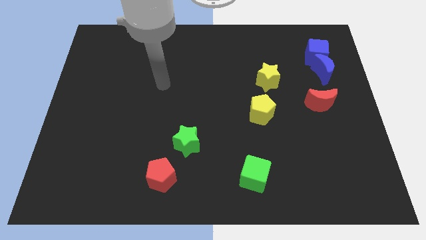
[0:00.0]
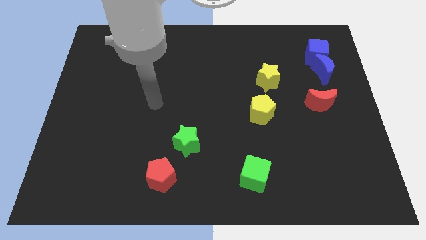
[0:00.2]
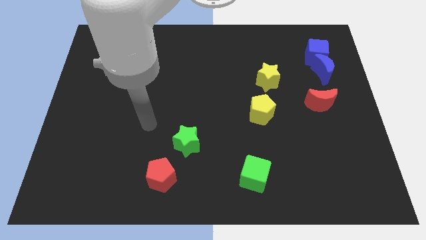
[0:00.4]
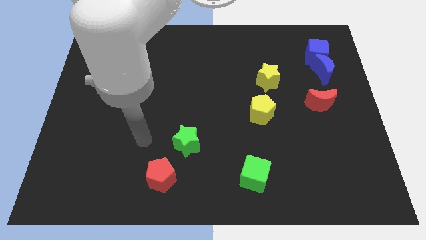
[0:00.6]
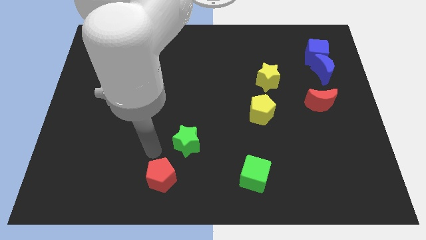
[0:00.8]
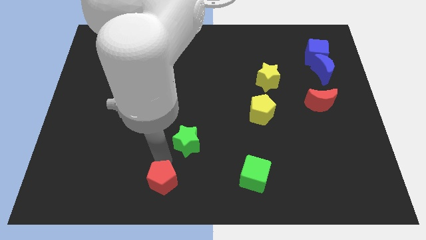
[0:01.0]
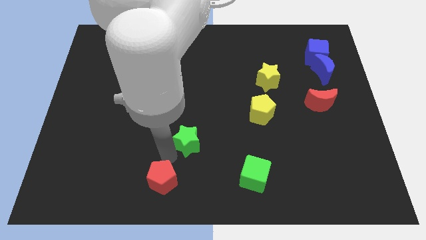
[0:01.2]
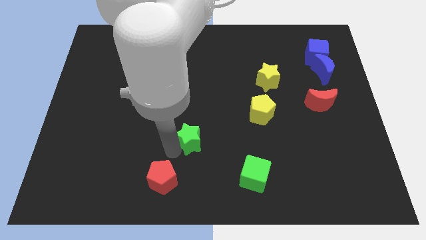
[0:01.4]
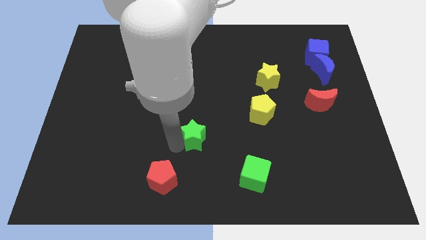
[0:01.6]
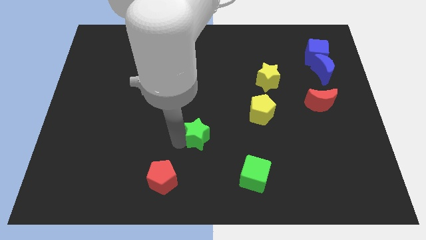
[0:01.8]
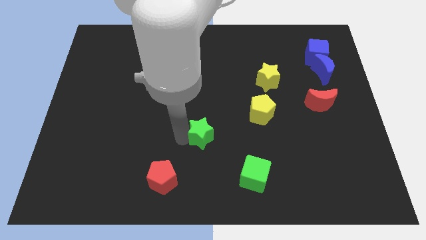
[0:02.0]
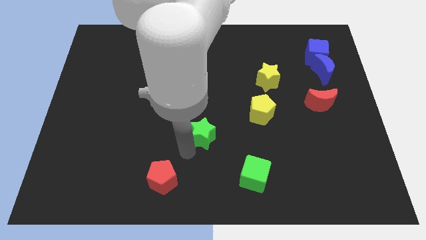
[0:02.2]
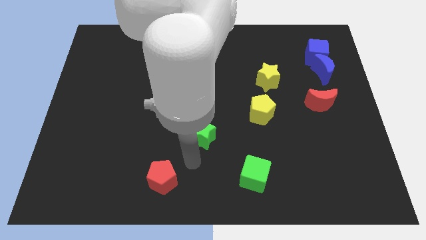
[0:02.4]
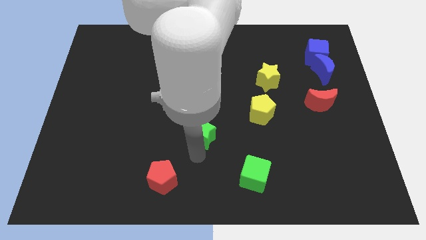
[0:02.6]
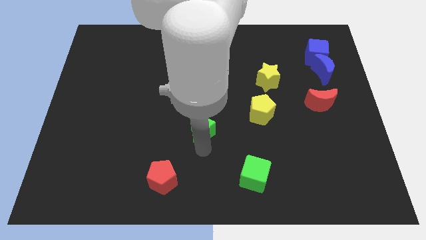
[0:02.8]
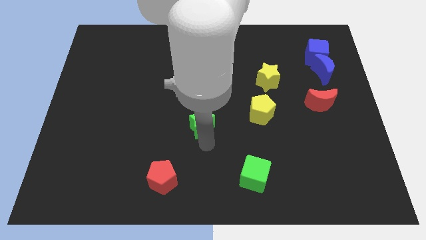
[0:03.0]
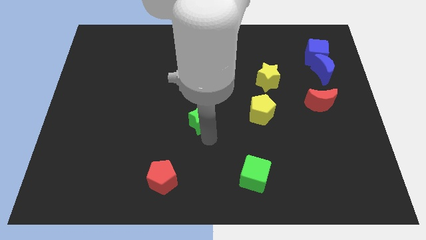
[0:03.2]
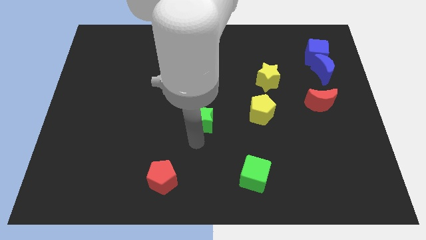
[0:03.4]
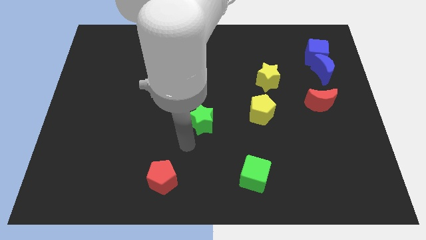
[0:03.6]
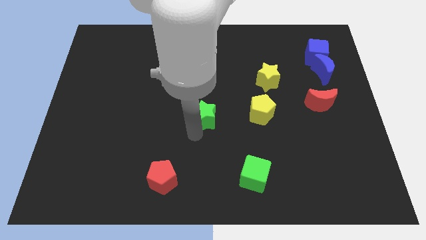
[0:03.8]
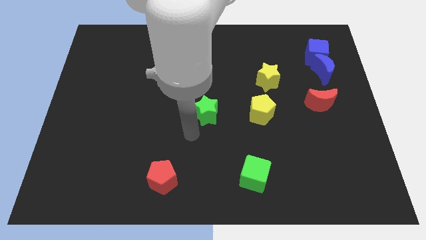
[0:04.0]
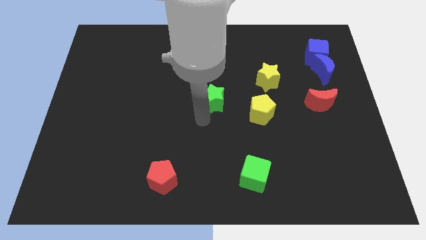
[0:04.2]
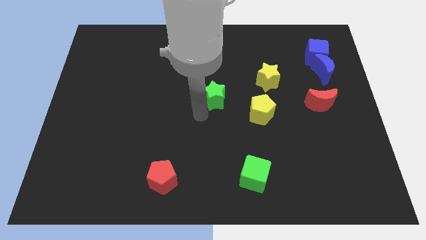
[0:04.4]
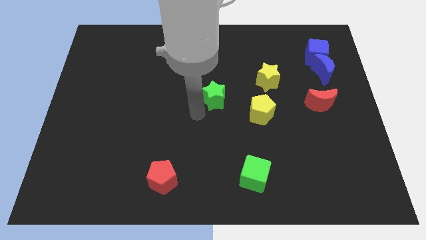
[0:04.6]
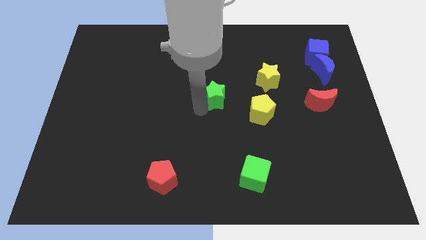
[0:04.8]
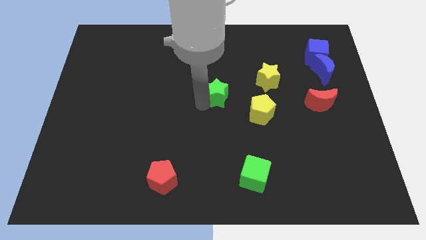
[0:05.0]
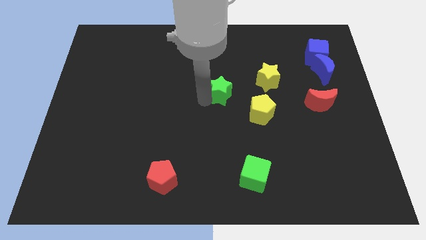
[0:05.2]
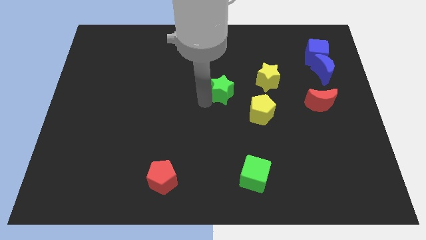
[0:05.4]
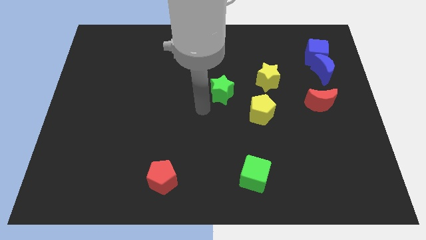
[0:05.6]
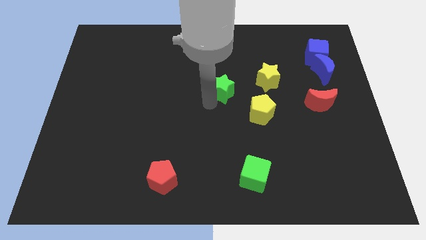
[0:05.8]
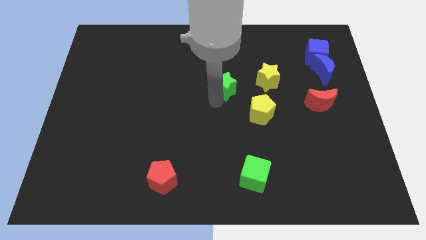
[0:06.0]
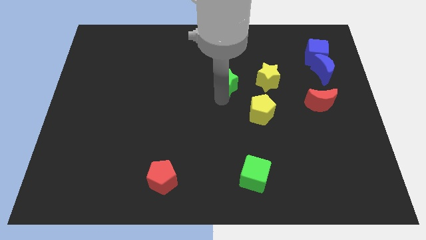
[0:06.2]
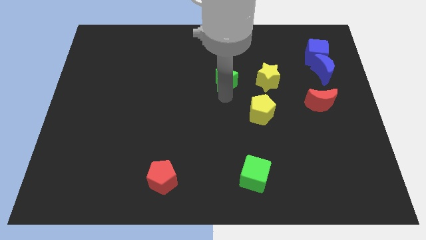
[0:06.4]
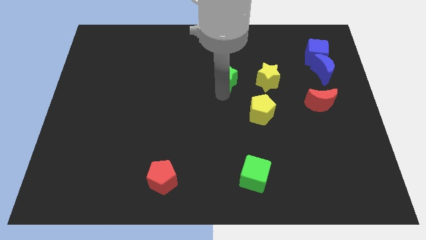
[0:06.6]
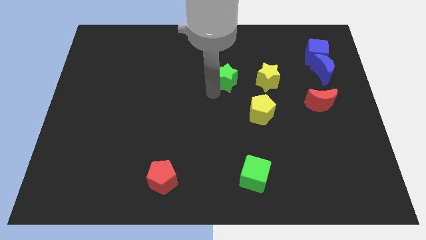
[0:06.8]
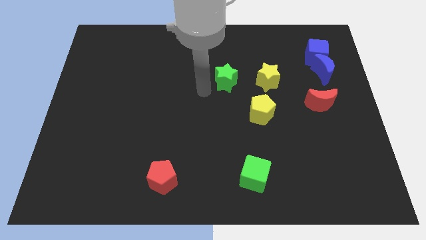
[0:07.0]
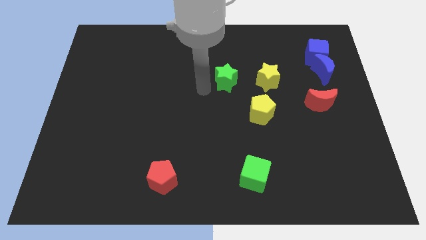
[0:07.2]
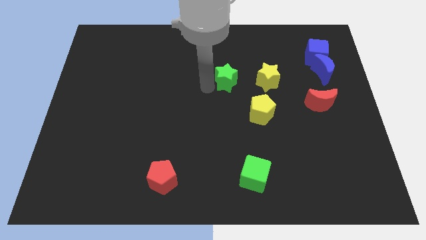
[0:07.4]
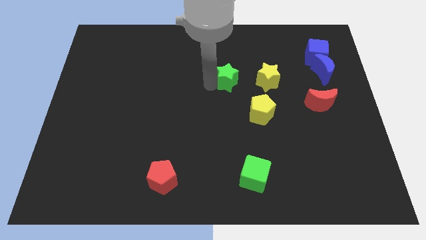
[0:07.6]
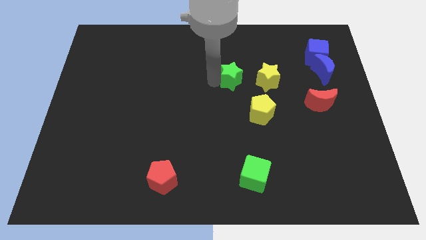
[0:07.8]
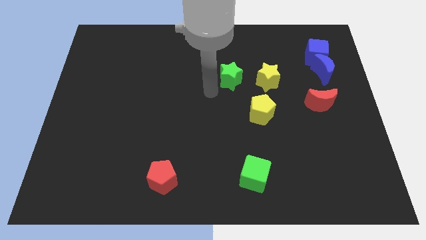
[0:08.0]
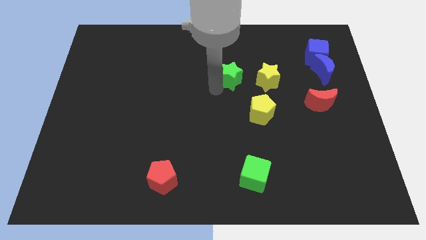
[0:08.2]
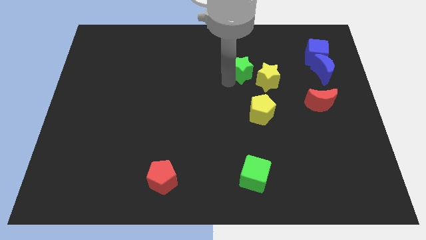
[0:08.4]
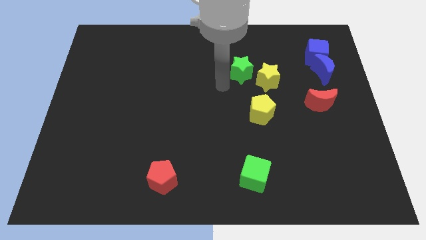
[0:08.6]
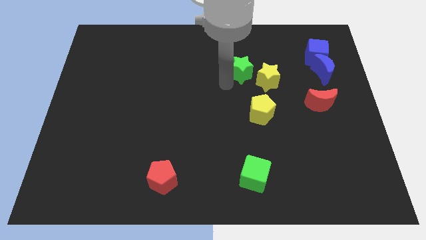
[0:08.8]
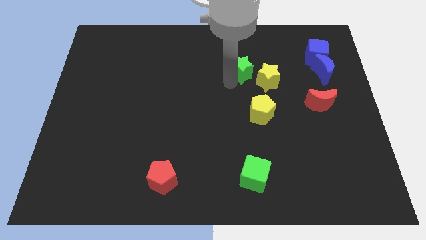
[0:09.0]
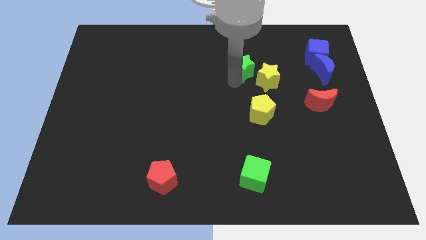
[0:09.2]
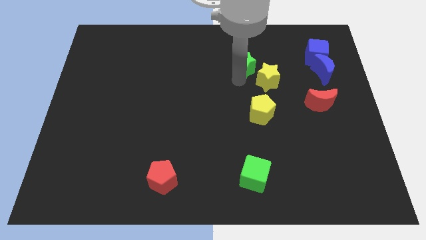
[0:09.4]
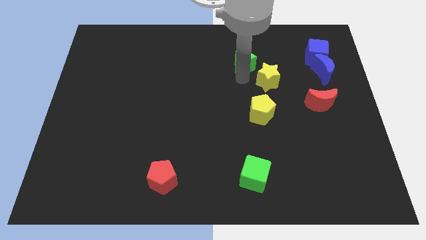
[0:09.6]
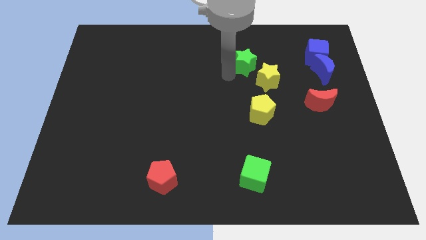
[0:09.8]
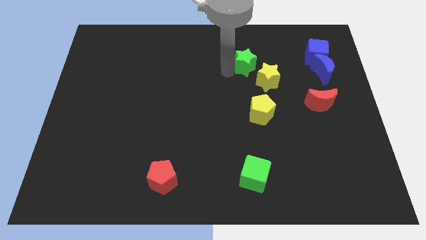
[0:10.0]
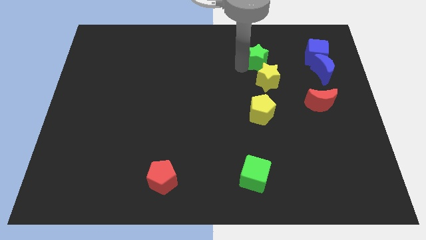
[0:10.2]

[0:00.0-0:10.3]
slide the green star left of the blue cube

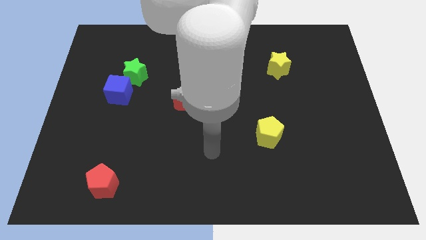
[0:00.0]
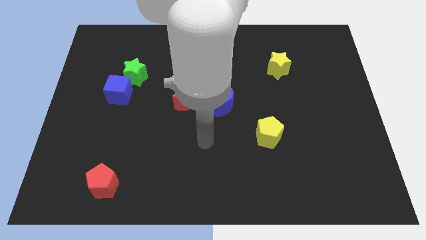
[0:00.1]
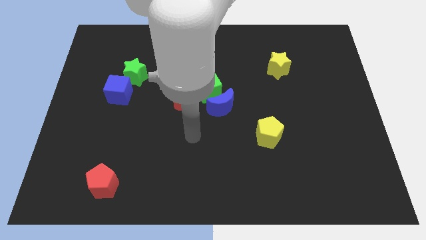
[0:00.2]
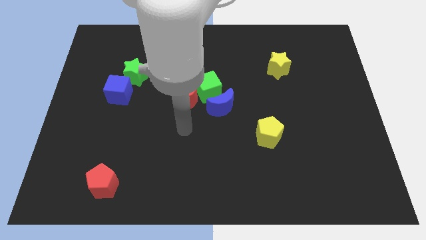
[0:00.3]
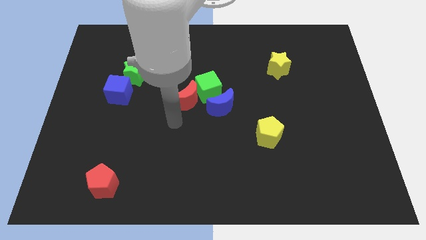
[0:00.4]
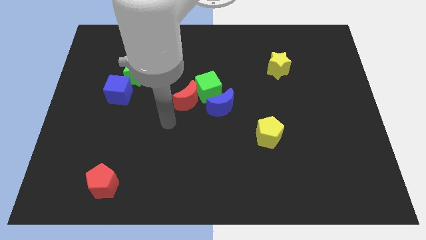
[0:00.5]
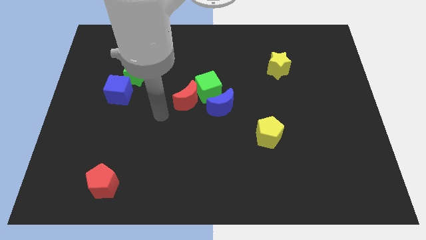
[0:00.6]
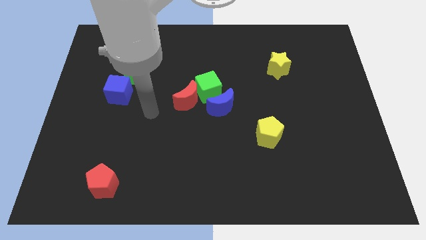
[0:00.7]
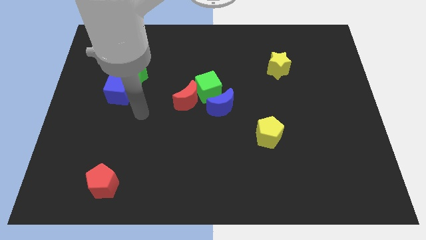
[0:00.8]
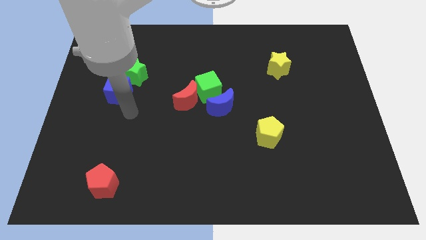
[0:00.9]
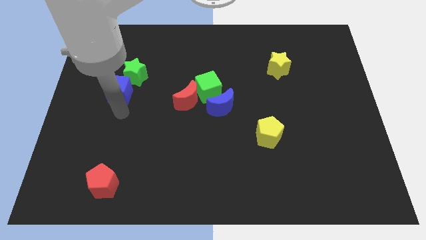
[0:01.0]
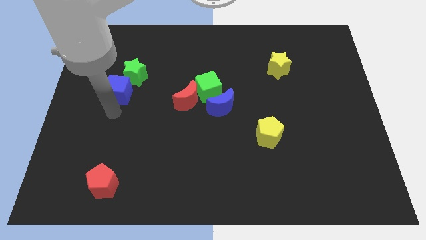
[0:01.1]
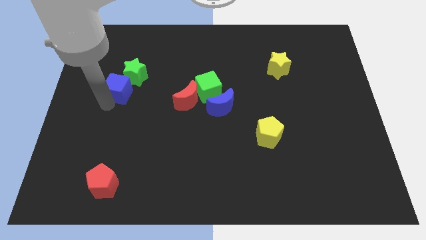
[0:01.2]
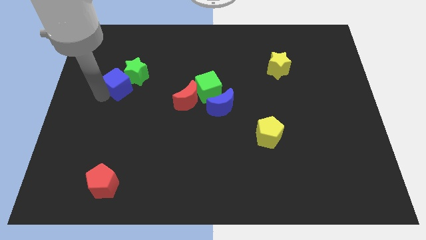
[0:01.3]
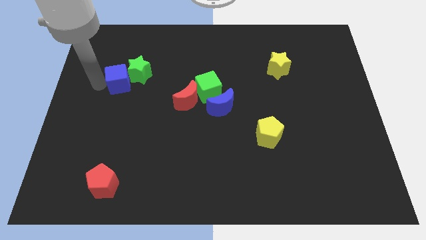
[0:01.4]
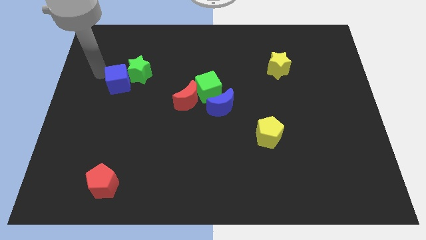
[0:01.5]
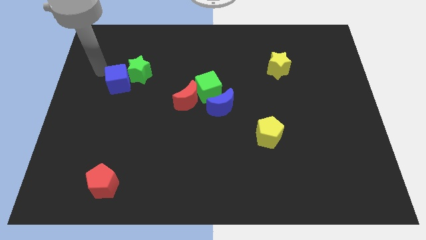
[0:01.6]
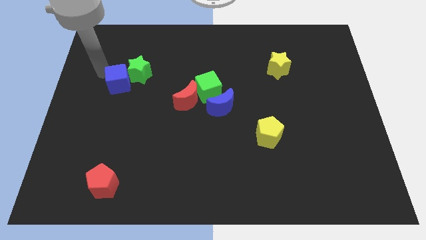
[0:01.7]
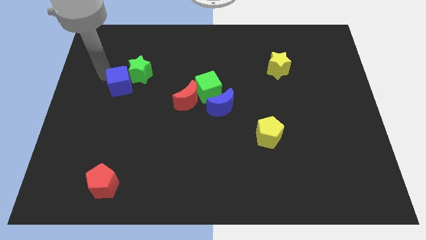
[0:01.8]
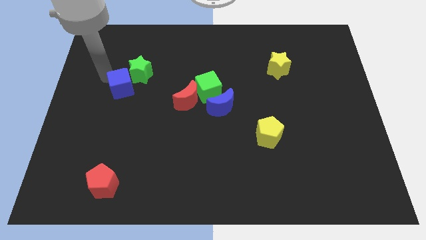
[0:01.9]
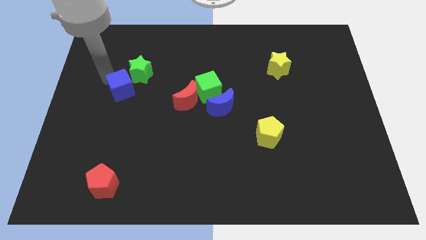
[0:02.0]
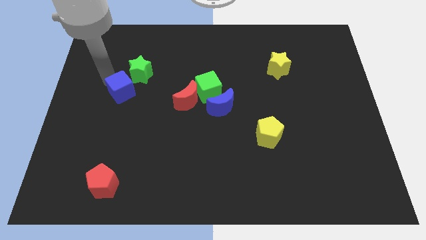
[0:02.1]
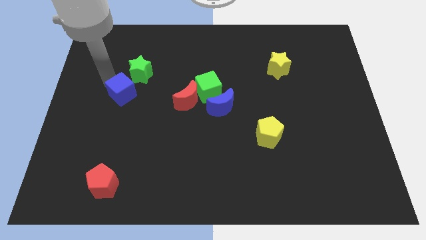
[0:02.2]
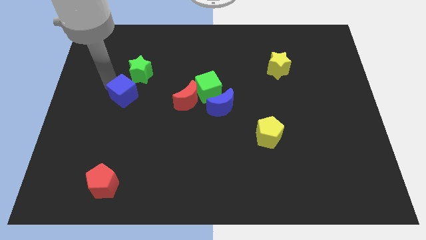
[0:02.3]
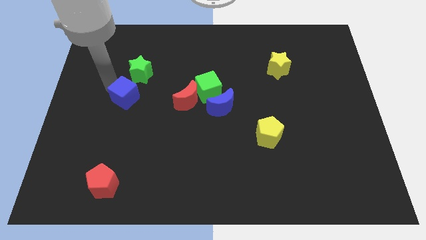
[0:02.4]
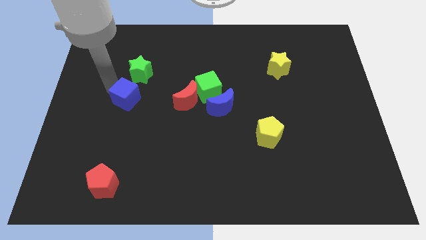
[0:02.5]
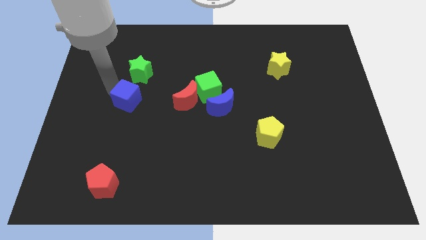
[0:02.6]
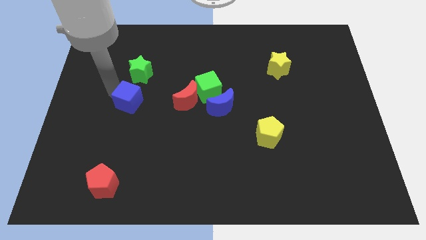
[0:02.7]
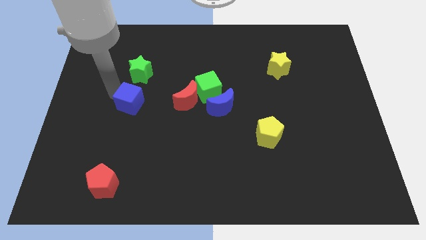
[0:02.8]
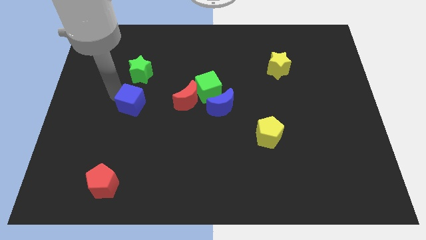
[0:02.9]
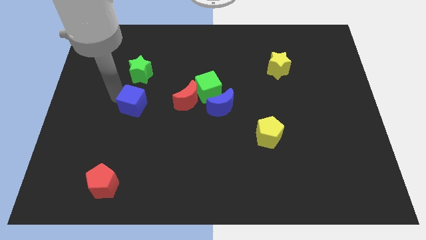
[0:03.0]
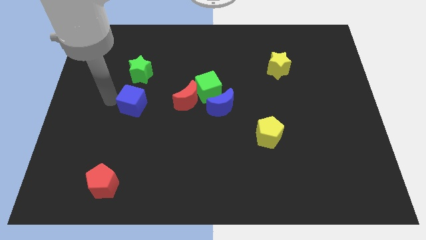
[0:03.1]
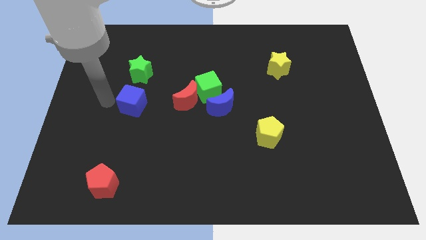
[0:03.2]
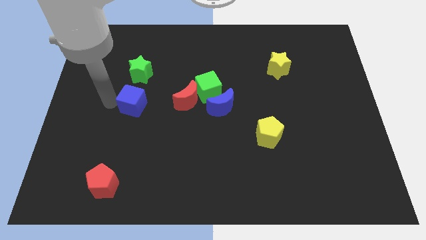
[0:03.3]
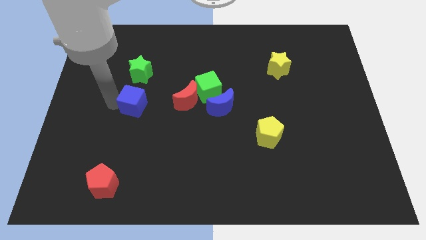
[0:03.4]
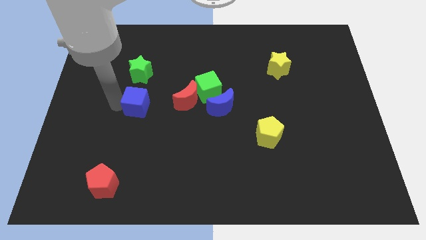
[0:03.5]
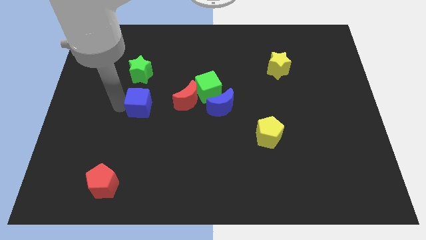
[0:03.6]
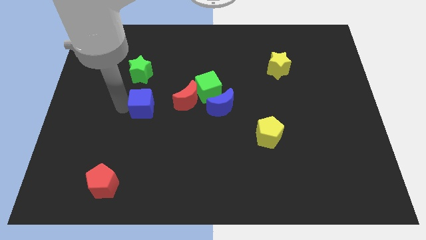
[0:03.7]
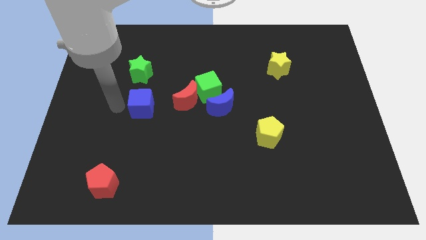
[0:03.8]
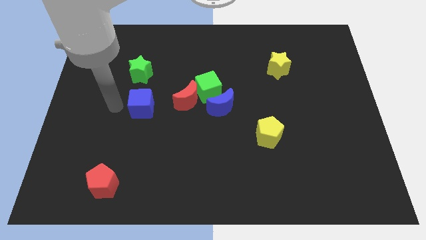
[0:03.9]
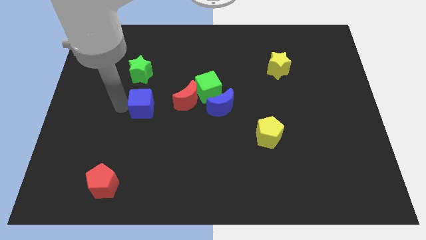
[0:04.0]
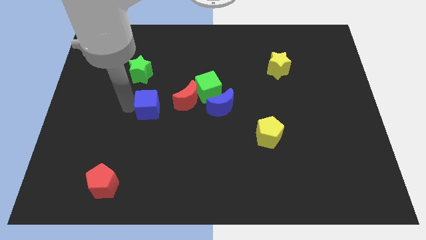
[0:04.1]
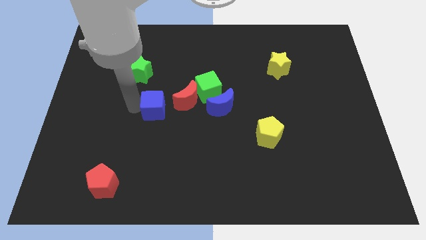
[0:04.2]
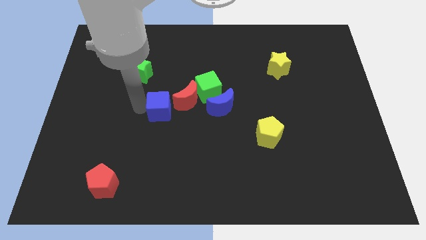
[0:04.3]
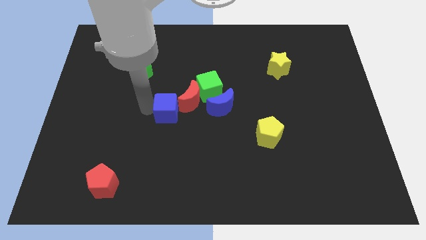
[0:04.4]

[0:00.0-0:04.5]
slide the blue cube to the bottom left side of the green cube
